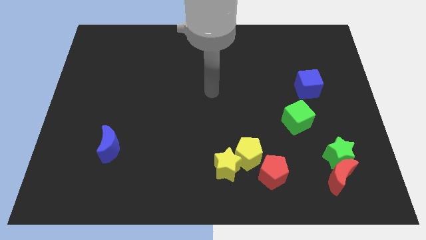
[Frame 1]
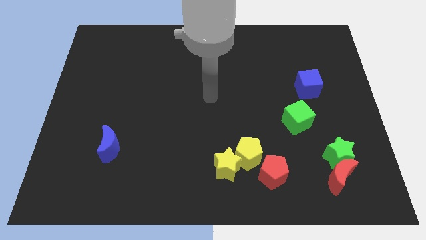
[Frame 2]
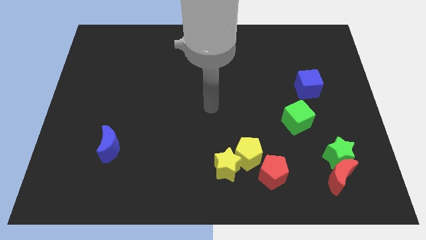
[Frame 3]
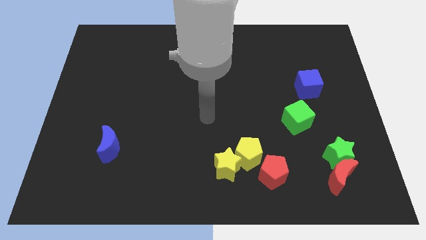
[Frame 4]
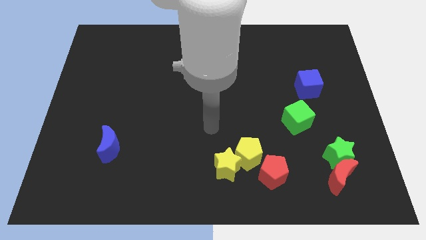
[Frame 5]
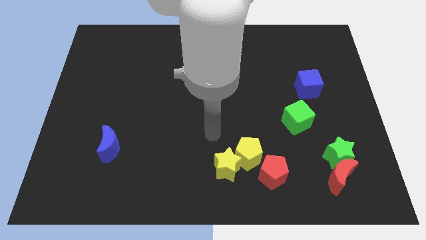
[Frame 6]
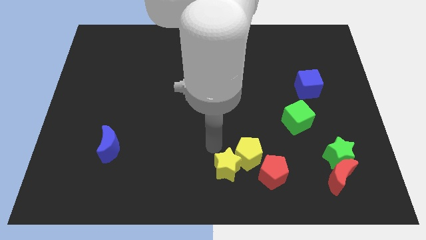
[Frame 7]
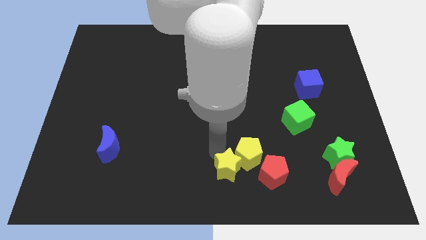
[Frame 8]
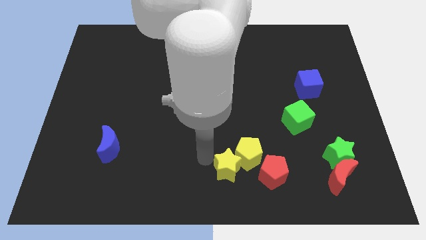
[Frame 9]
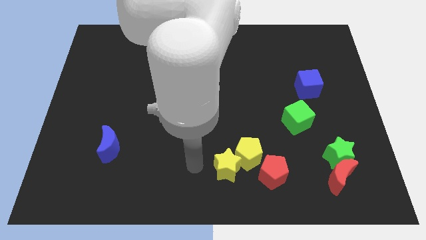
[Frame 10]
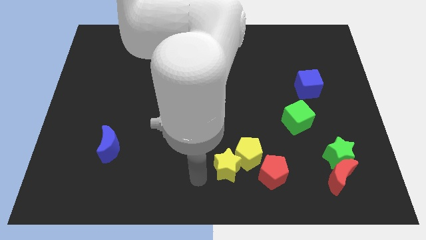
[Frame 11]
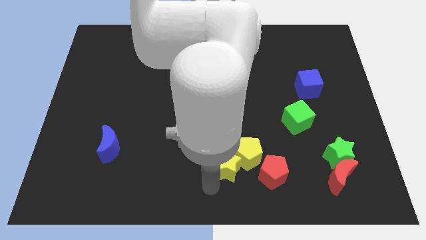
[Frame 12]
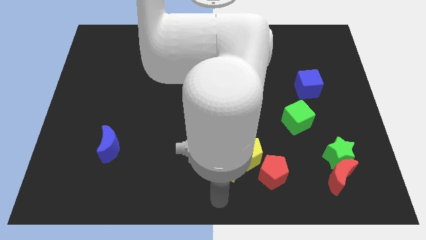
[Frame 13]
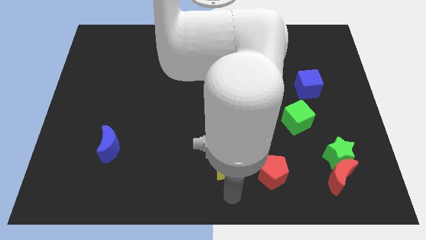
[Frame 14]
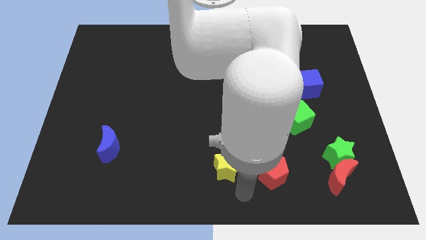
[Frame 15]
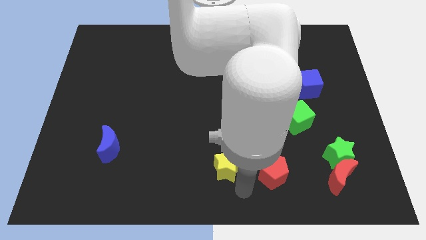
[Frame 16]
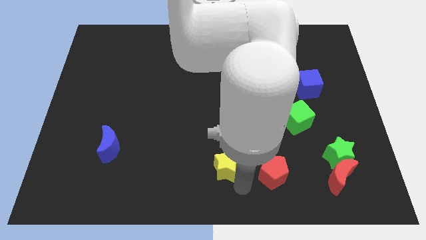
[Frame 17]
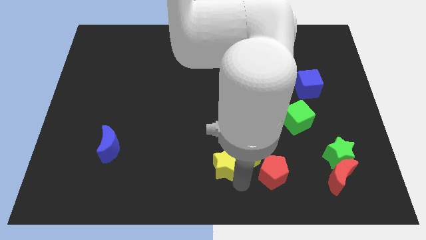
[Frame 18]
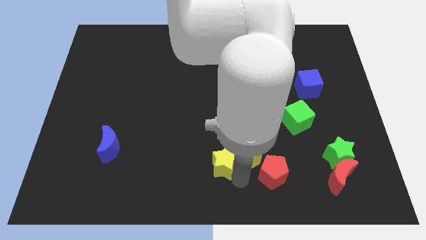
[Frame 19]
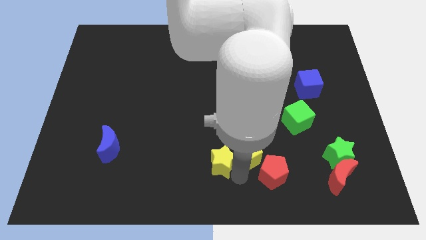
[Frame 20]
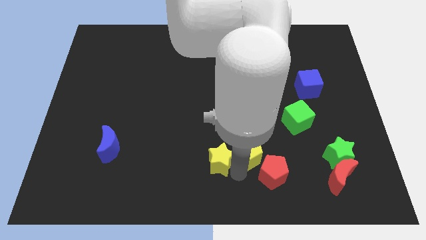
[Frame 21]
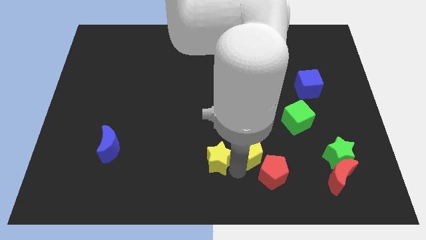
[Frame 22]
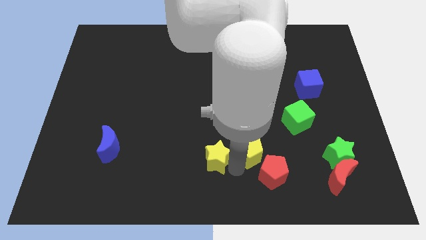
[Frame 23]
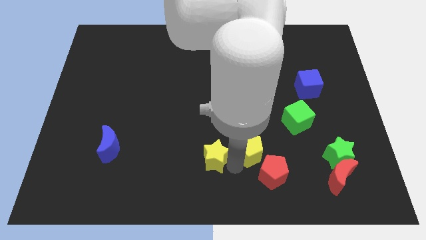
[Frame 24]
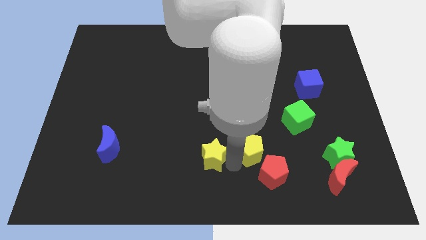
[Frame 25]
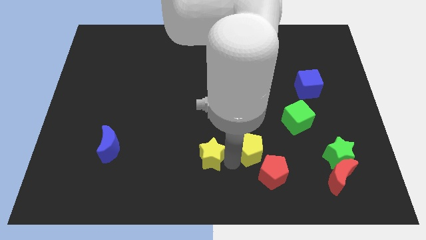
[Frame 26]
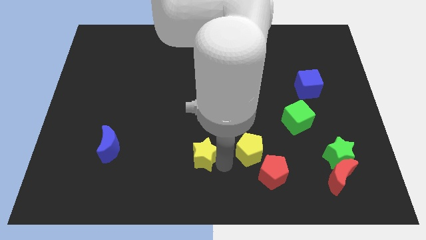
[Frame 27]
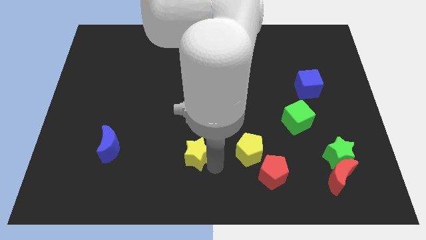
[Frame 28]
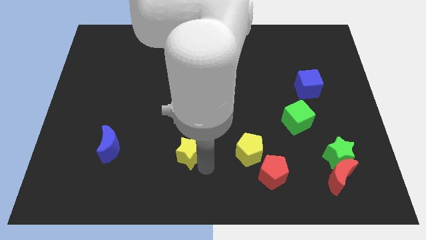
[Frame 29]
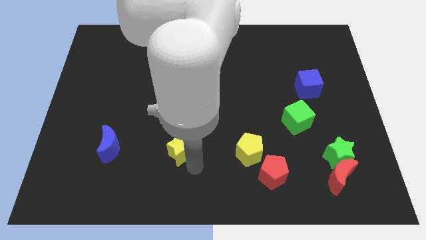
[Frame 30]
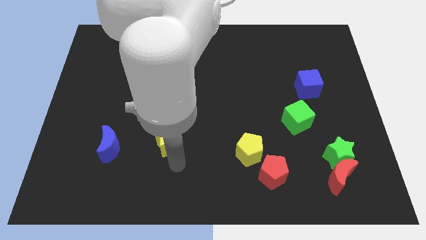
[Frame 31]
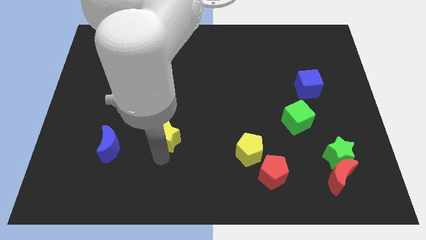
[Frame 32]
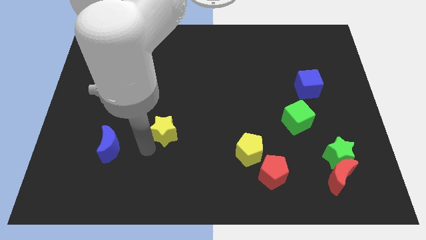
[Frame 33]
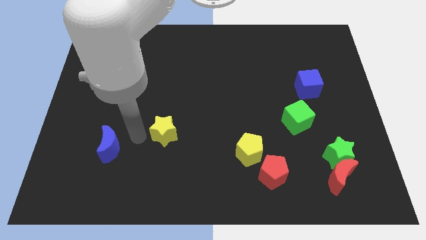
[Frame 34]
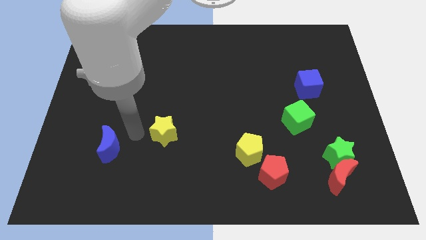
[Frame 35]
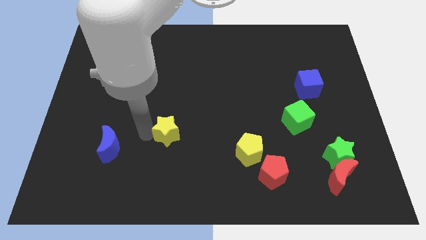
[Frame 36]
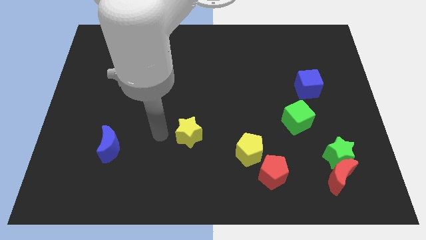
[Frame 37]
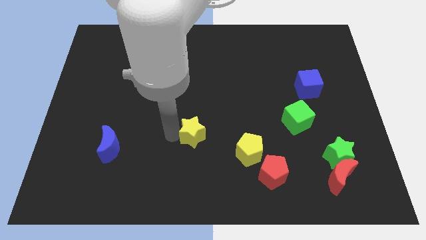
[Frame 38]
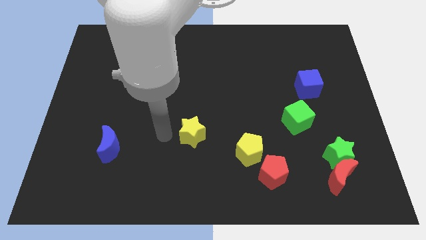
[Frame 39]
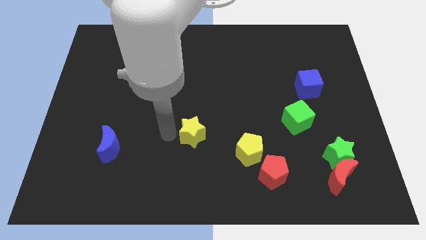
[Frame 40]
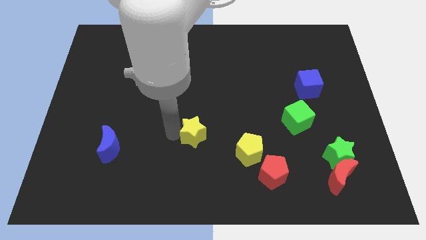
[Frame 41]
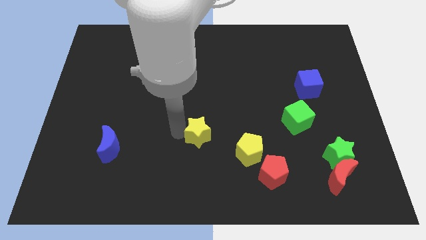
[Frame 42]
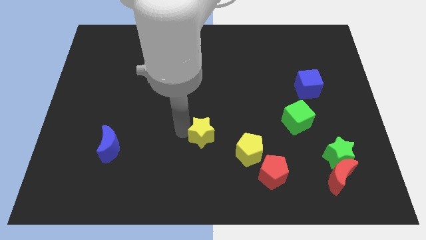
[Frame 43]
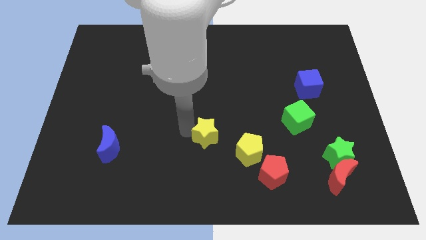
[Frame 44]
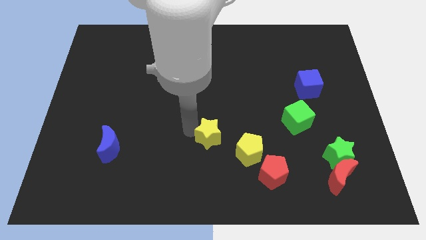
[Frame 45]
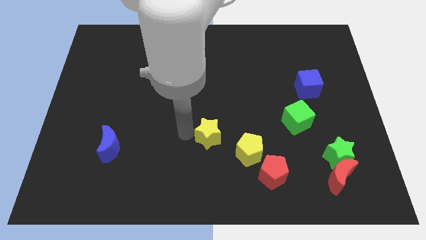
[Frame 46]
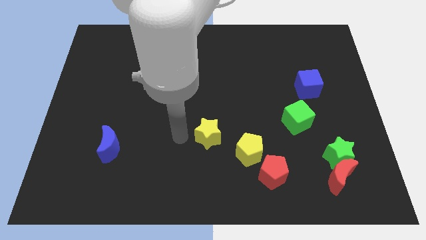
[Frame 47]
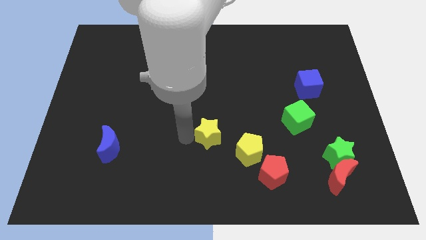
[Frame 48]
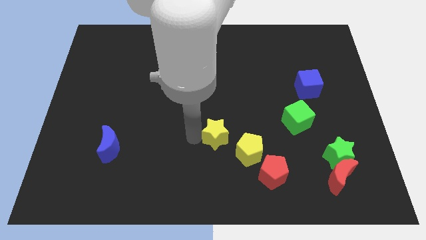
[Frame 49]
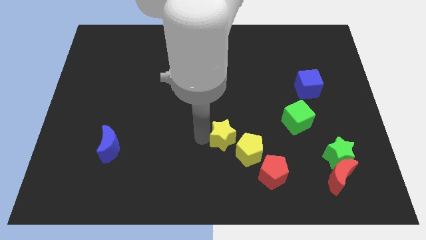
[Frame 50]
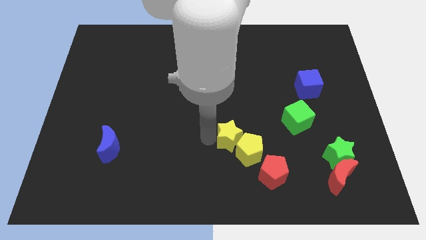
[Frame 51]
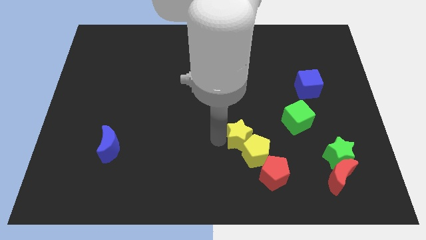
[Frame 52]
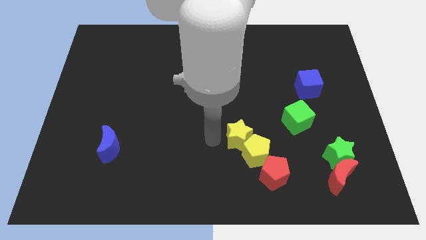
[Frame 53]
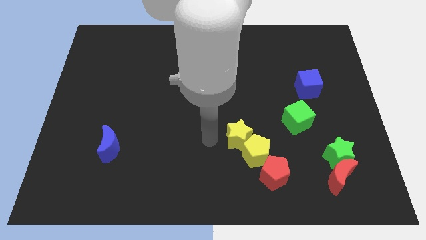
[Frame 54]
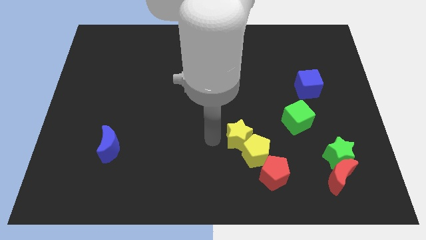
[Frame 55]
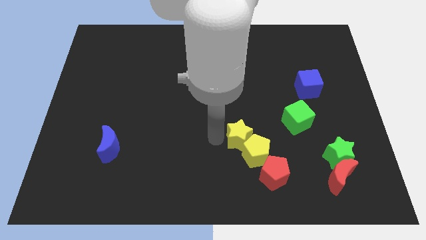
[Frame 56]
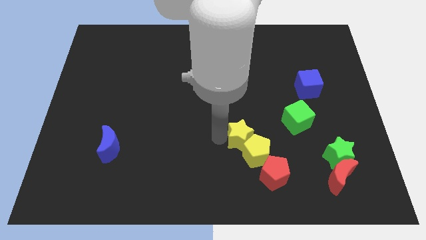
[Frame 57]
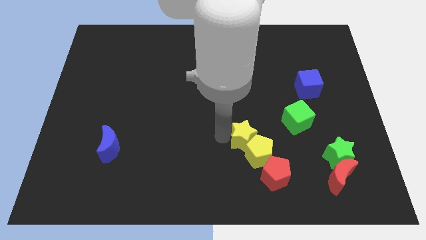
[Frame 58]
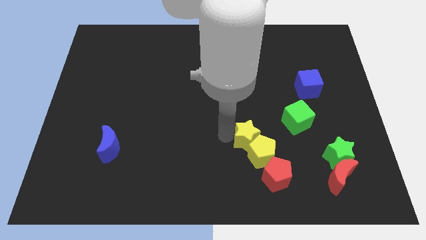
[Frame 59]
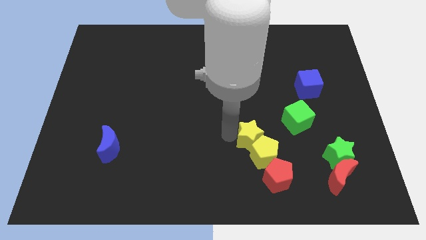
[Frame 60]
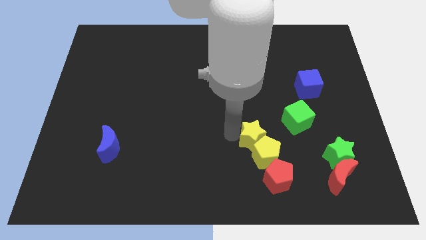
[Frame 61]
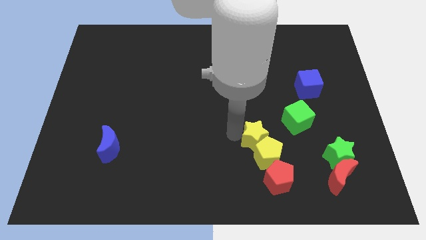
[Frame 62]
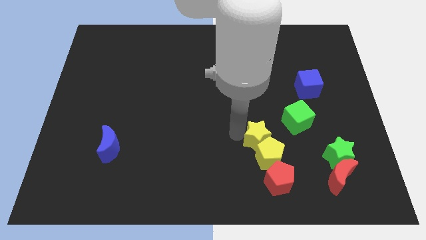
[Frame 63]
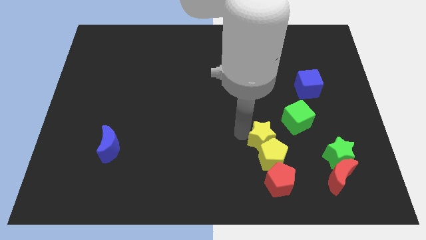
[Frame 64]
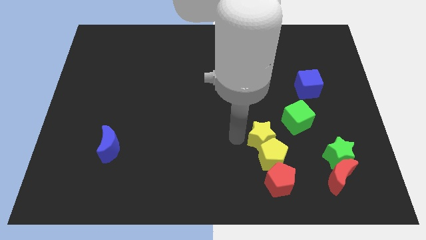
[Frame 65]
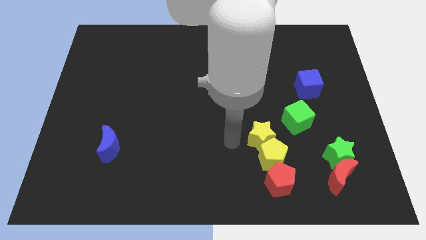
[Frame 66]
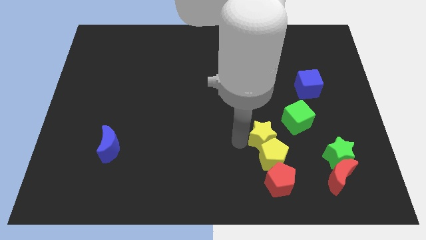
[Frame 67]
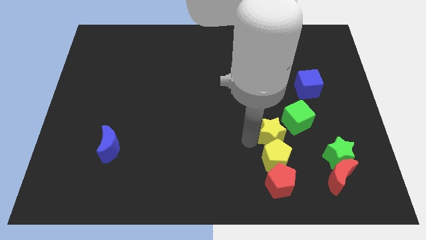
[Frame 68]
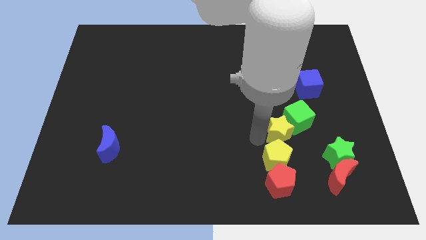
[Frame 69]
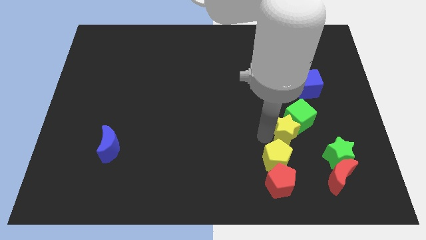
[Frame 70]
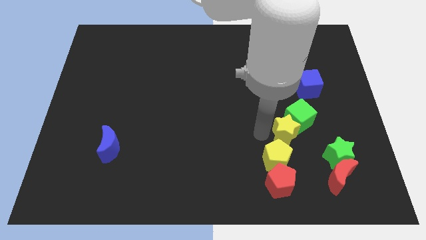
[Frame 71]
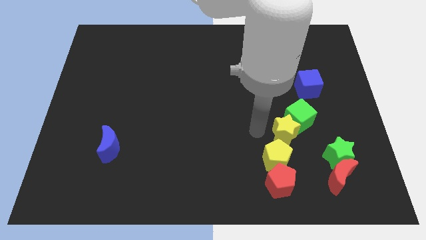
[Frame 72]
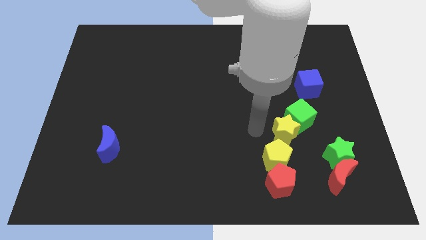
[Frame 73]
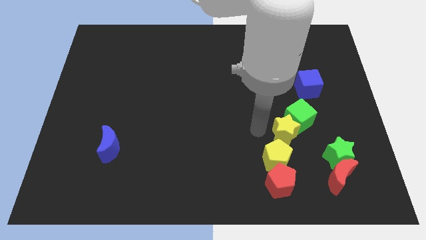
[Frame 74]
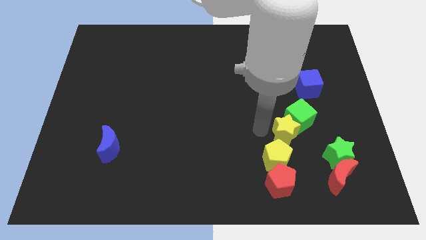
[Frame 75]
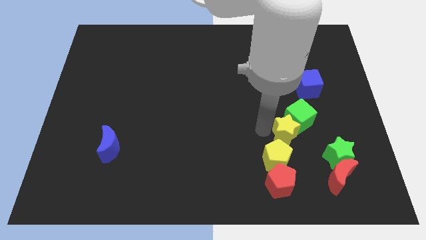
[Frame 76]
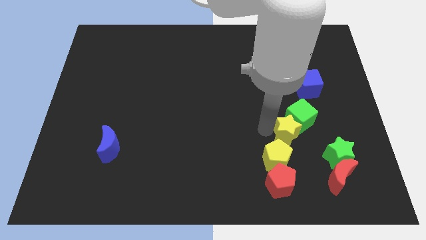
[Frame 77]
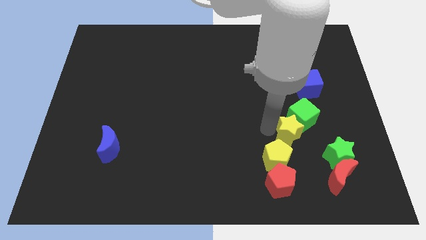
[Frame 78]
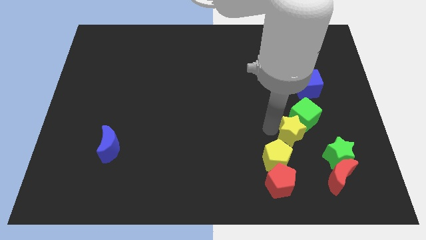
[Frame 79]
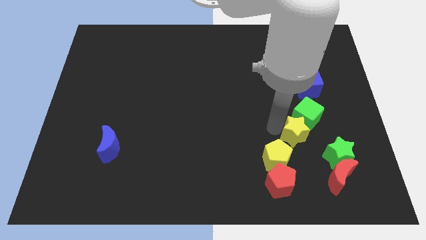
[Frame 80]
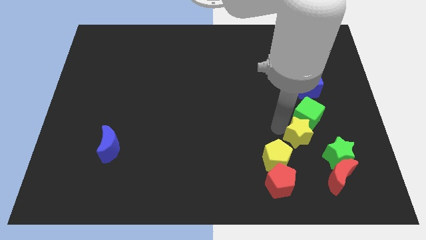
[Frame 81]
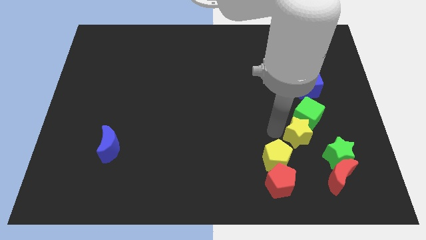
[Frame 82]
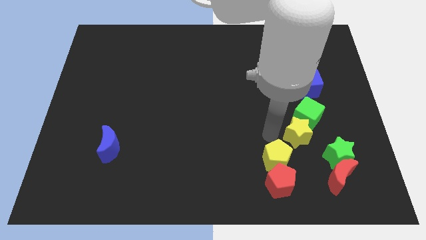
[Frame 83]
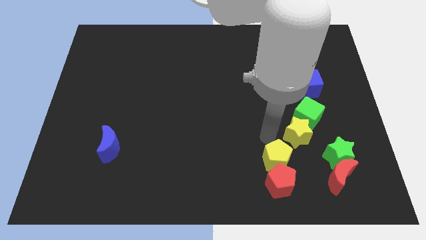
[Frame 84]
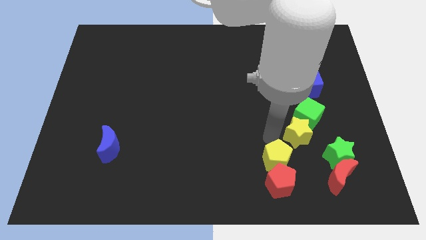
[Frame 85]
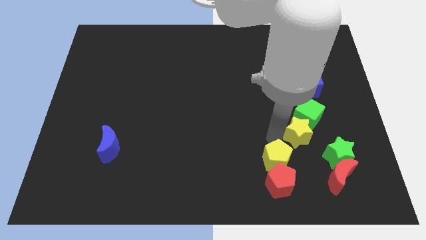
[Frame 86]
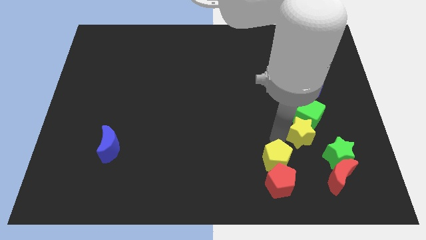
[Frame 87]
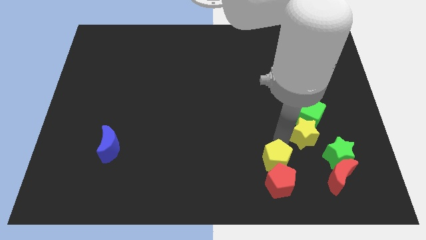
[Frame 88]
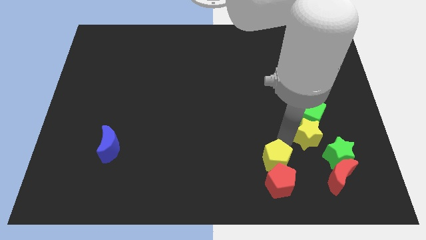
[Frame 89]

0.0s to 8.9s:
push the yellow star above the red moon
